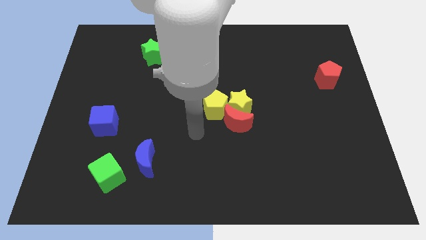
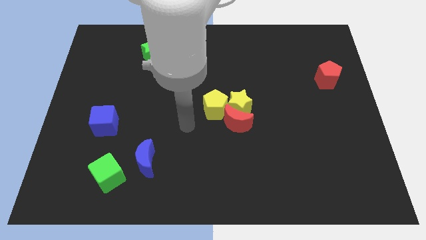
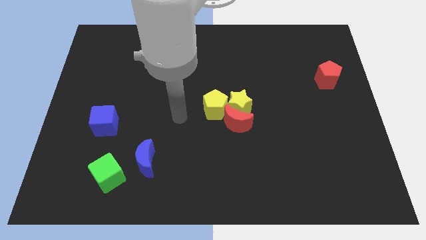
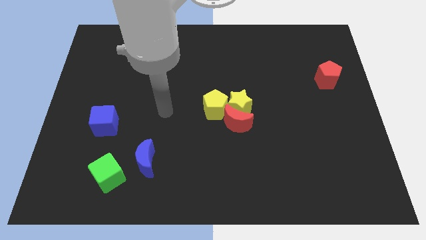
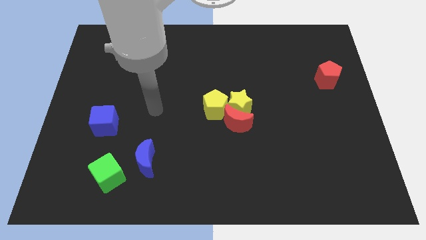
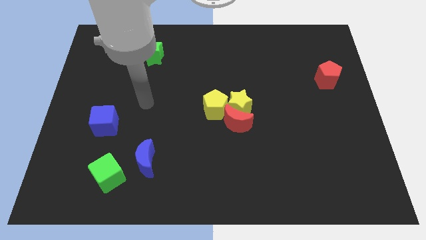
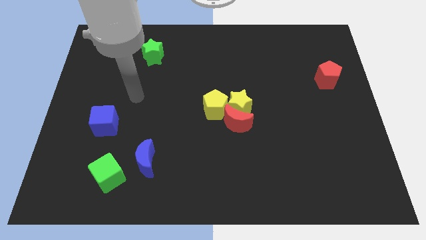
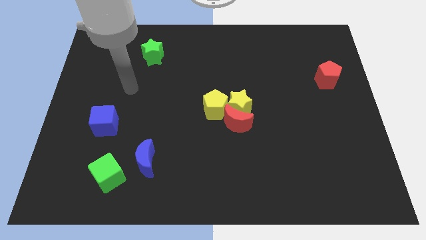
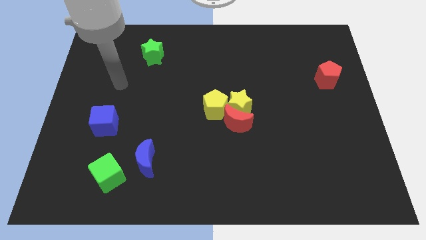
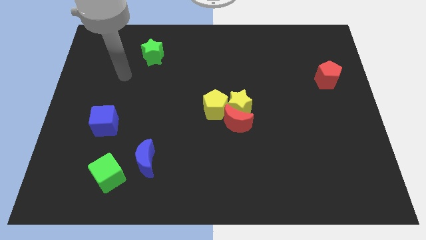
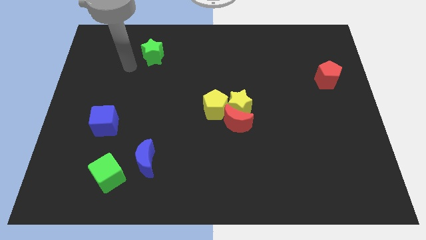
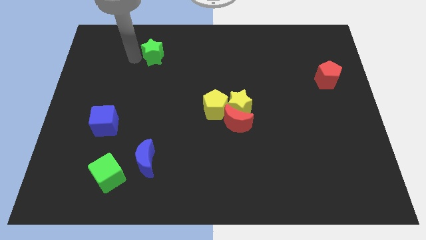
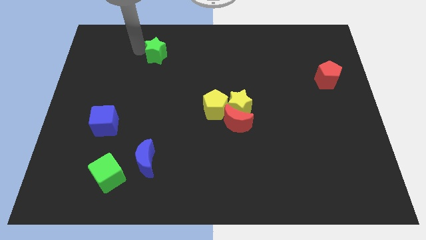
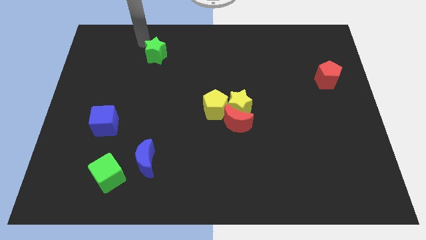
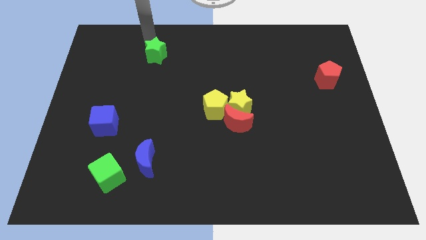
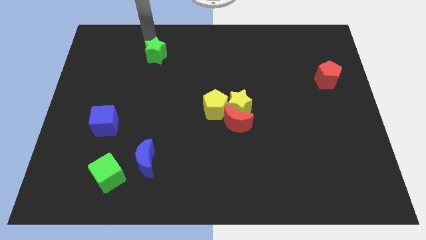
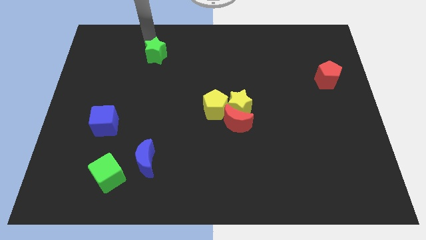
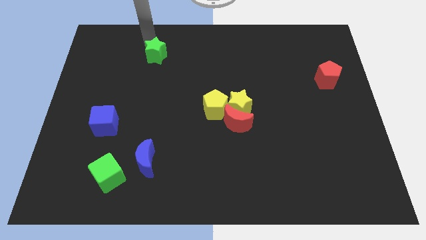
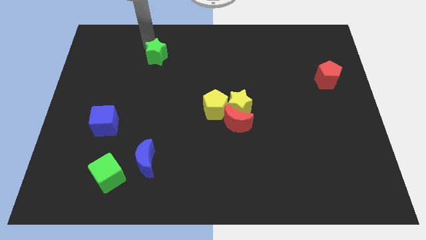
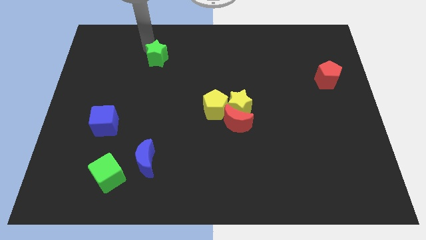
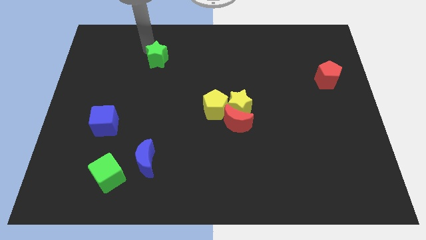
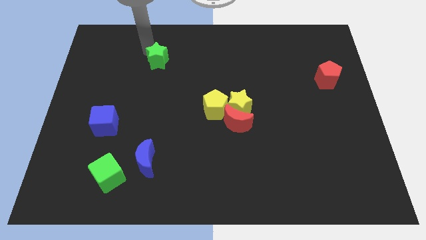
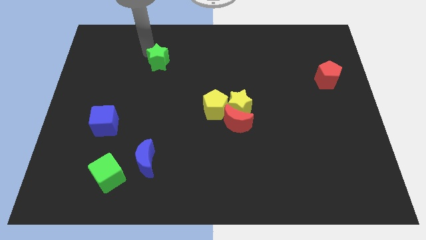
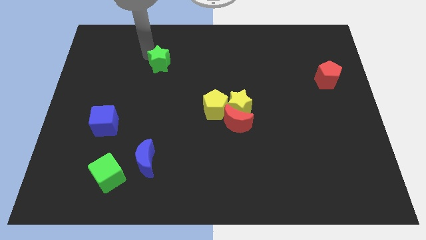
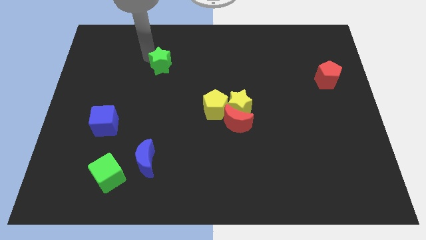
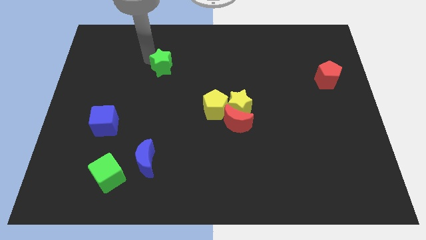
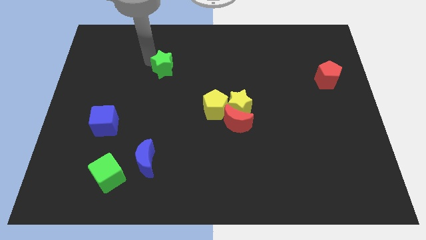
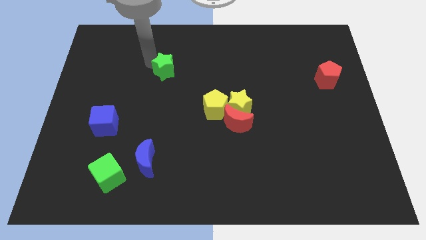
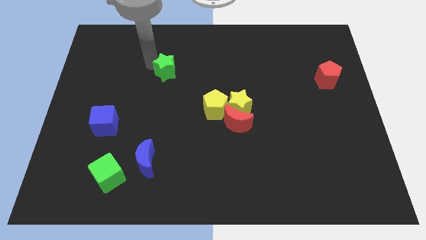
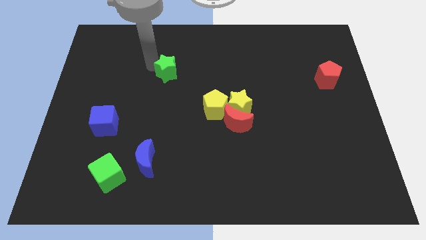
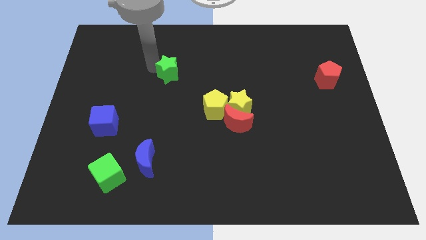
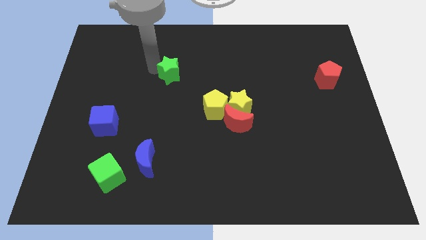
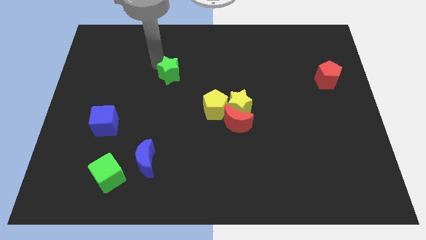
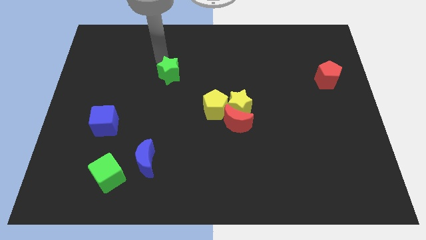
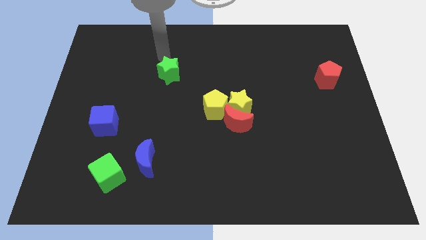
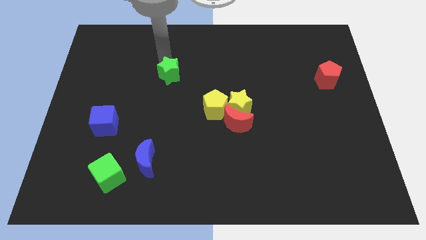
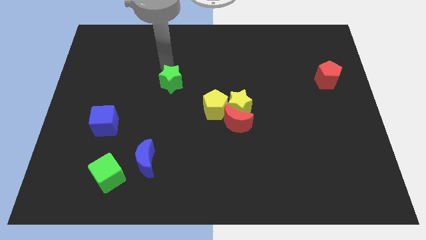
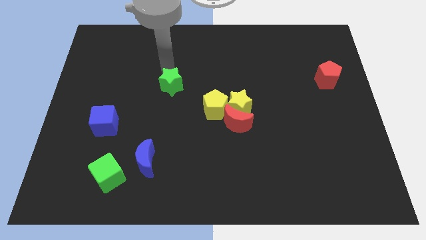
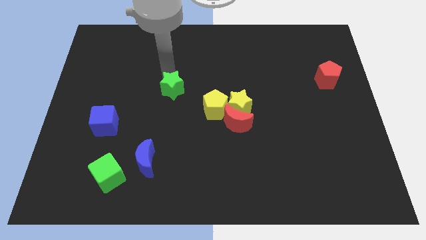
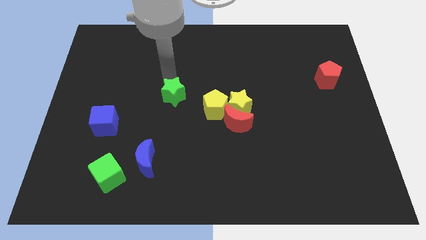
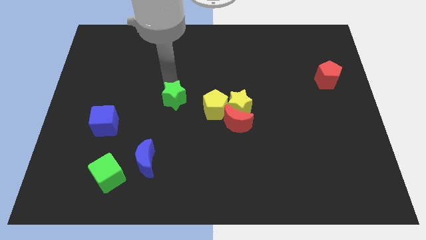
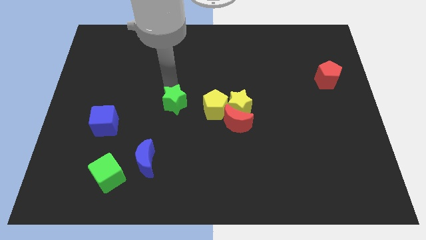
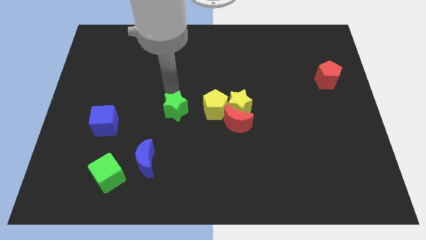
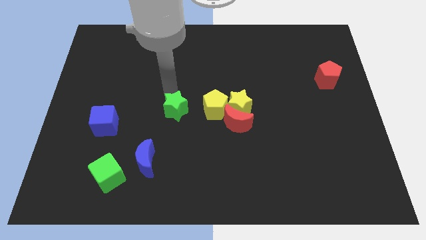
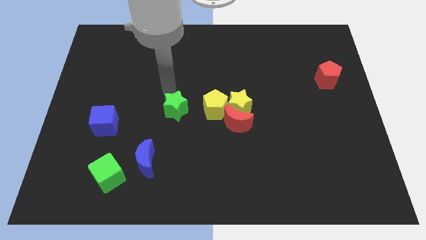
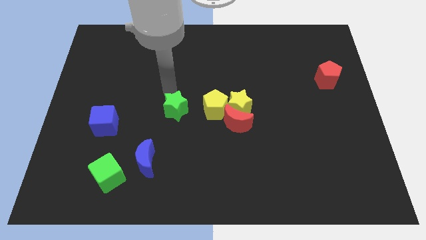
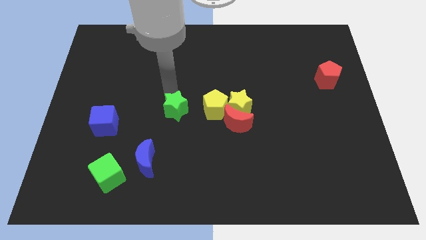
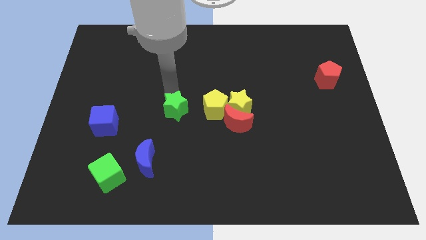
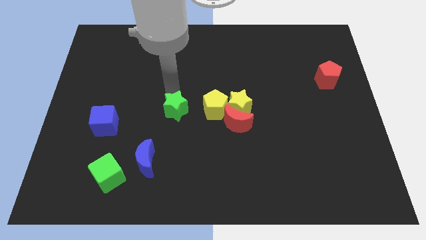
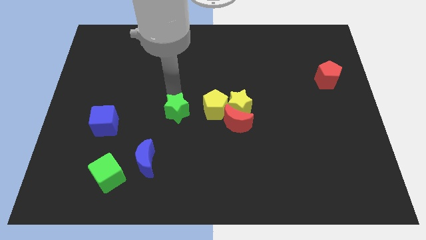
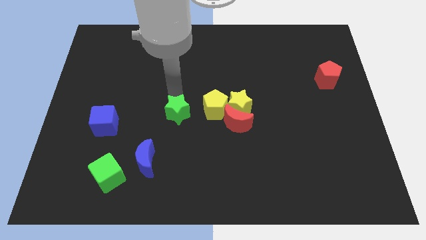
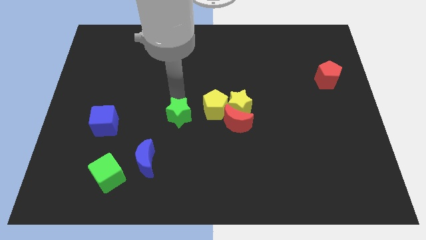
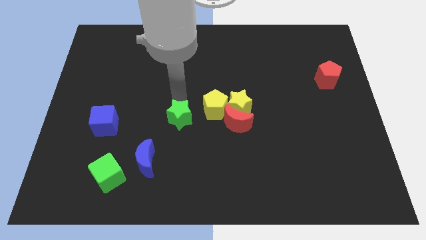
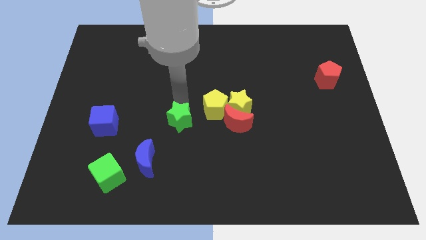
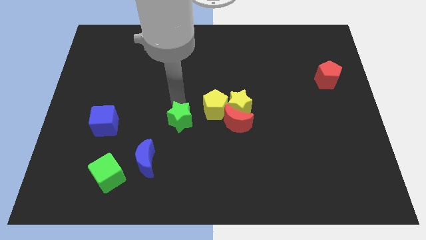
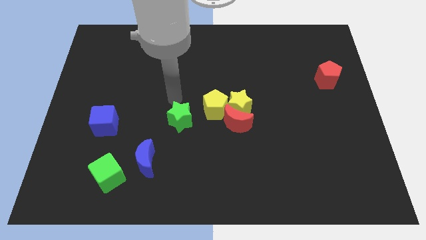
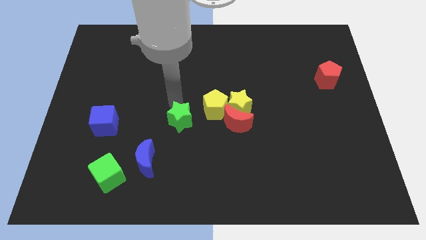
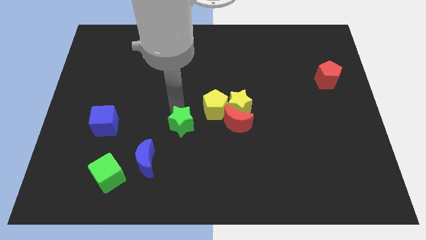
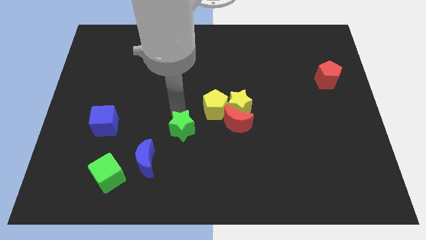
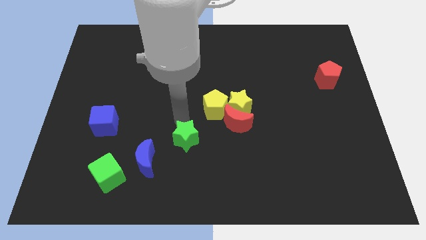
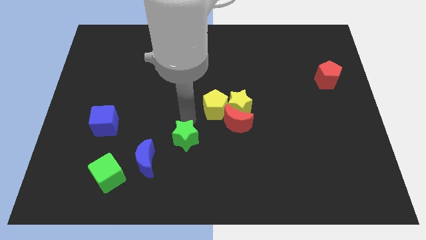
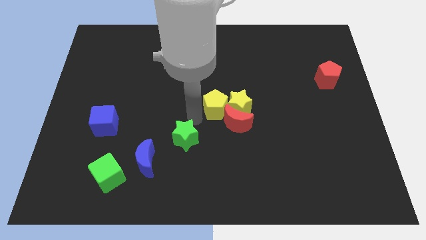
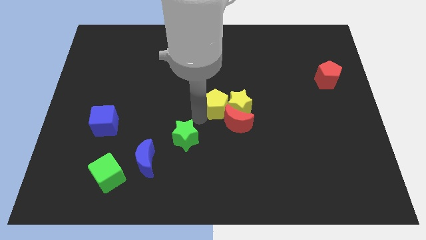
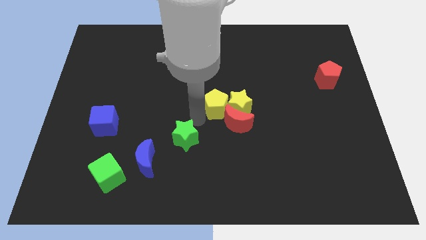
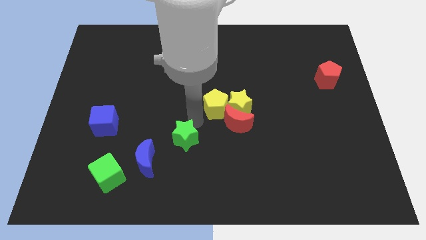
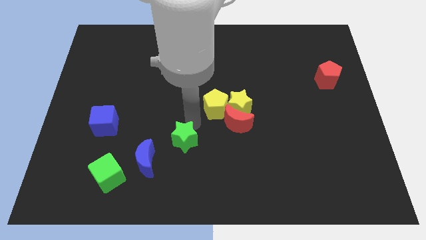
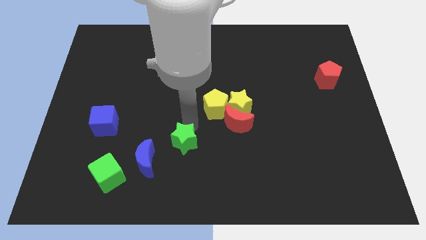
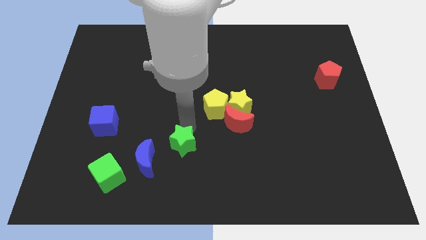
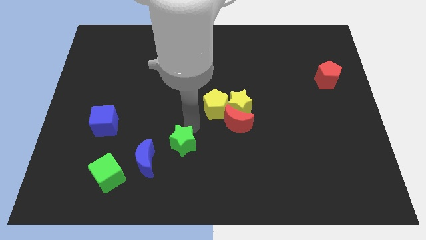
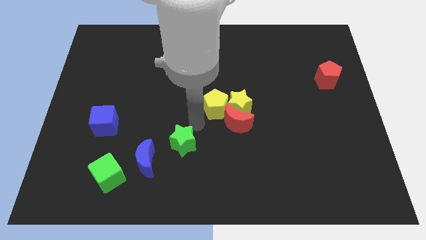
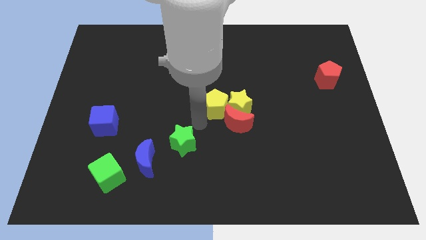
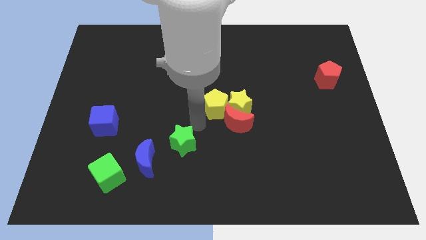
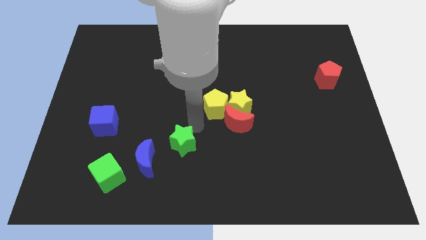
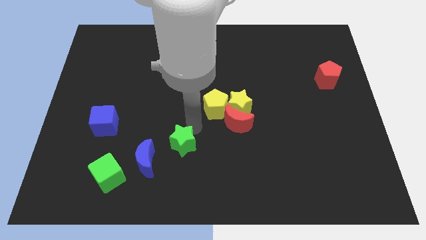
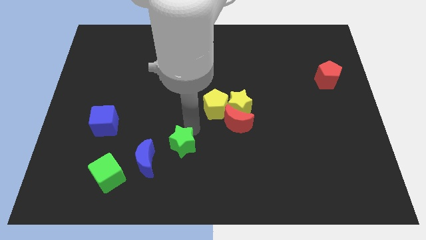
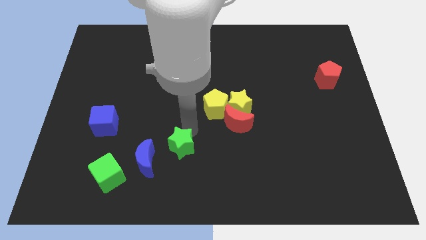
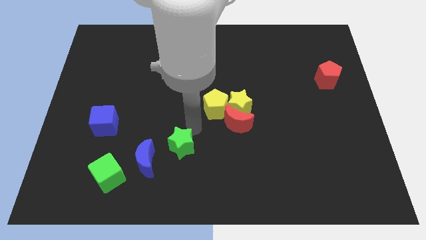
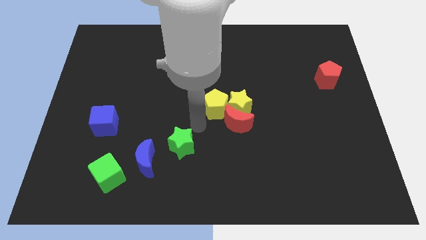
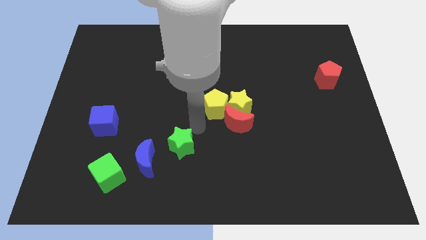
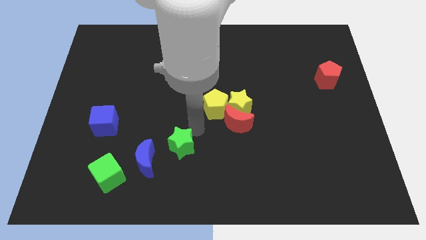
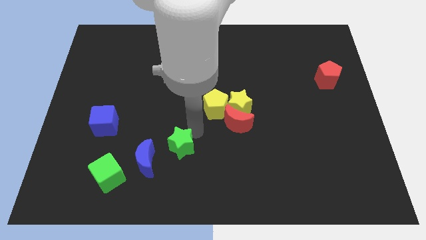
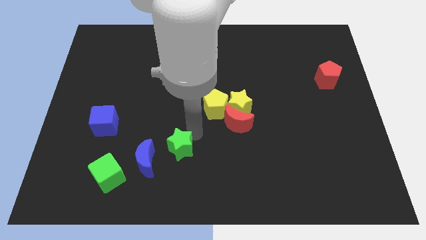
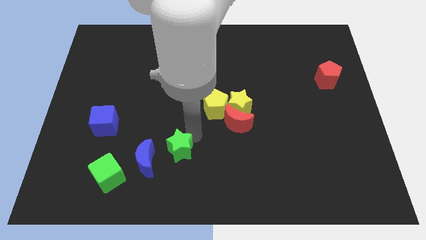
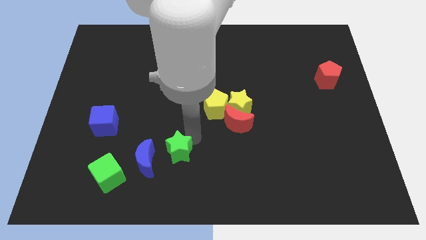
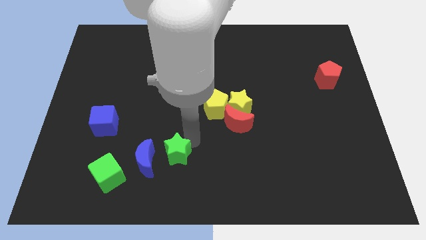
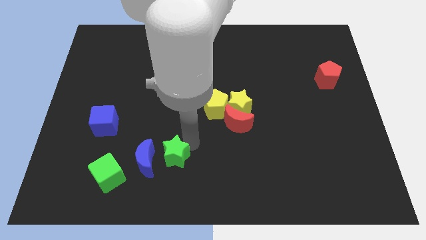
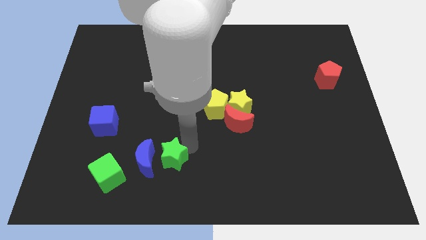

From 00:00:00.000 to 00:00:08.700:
slide the green star just right of the green cube
